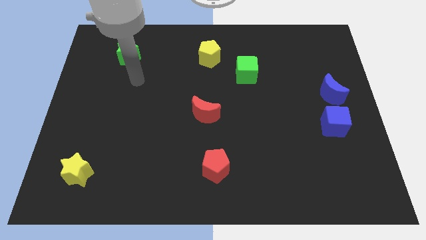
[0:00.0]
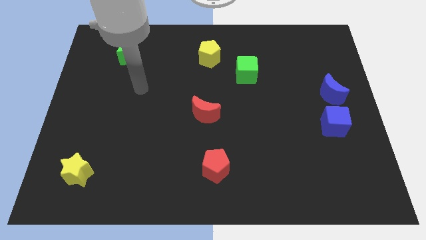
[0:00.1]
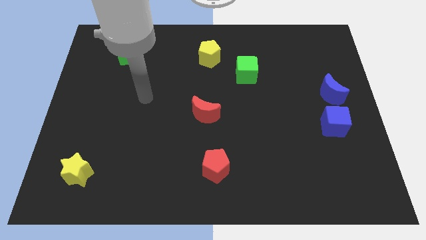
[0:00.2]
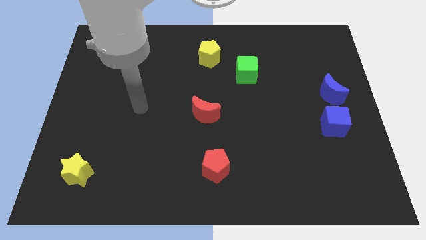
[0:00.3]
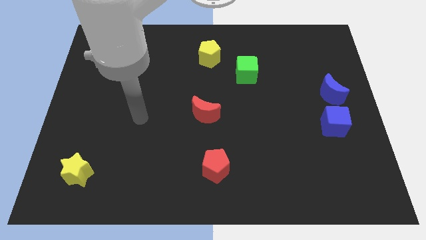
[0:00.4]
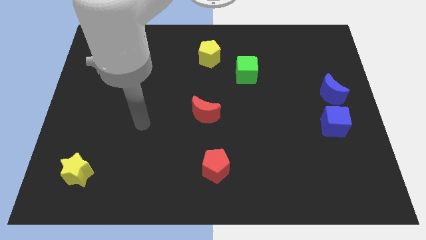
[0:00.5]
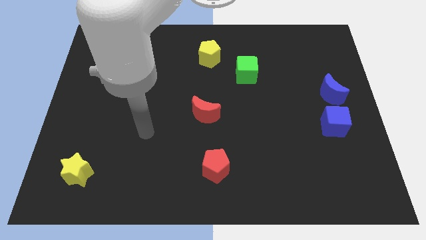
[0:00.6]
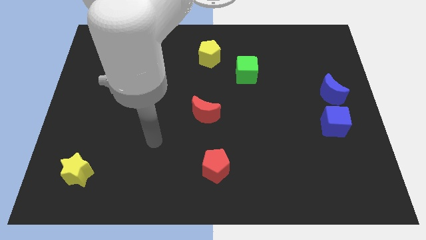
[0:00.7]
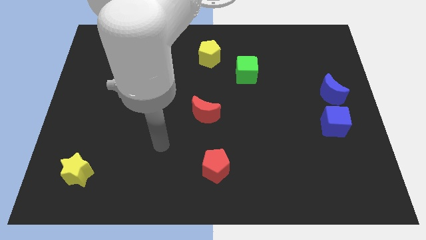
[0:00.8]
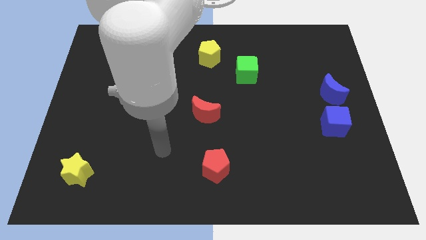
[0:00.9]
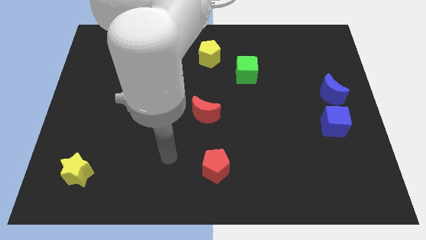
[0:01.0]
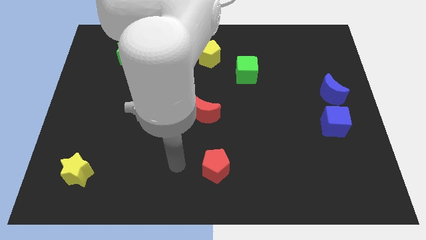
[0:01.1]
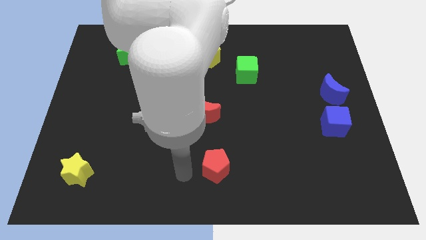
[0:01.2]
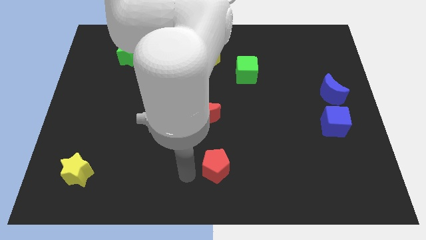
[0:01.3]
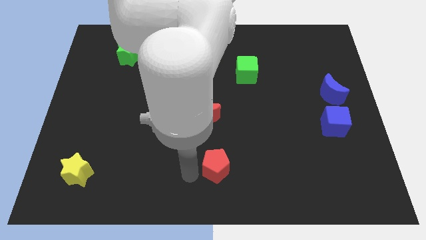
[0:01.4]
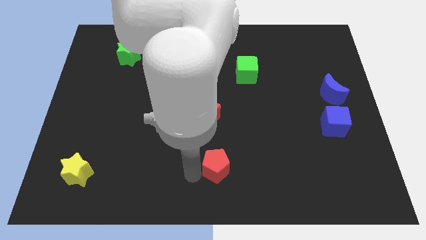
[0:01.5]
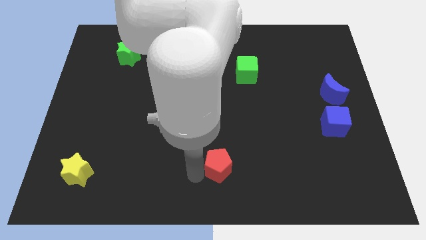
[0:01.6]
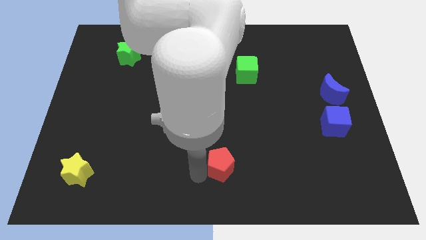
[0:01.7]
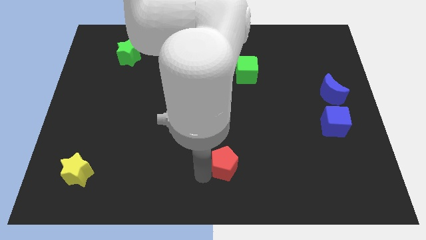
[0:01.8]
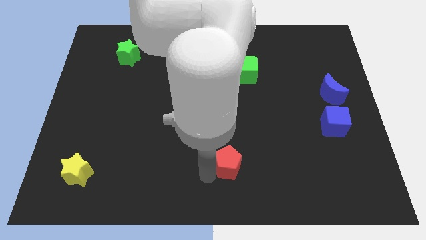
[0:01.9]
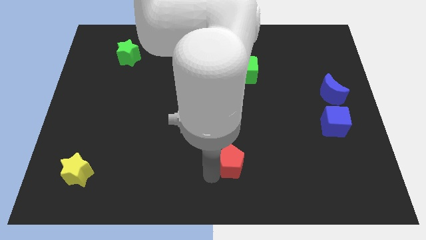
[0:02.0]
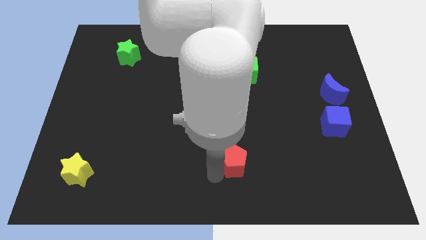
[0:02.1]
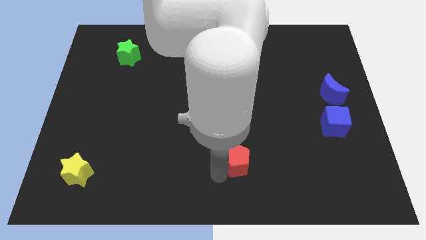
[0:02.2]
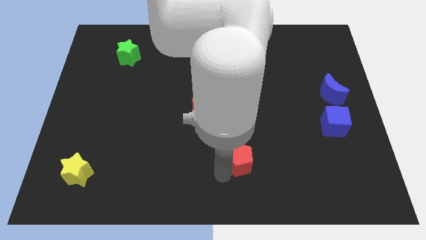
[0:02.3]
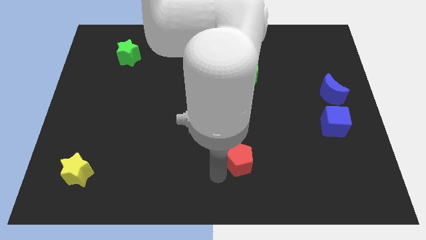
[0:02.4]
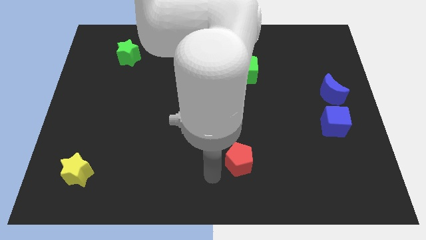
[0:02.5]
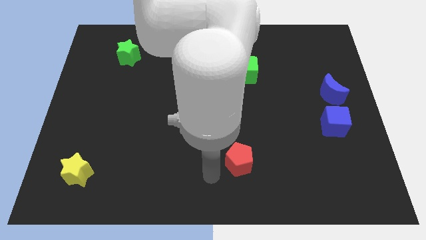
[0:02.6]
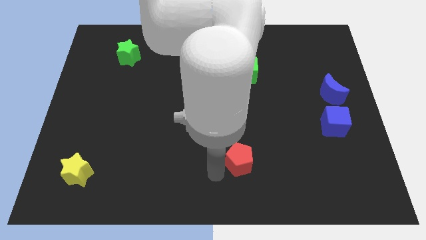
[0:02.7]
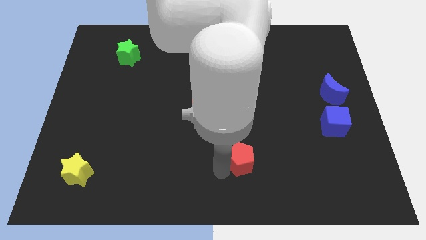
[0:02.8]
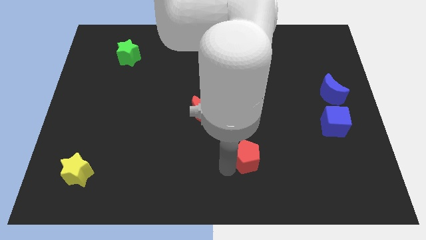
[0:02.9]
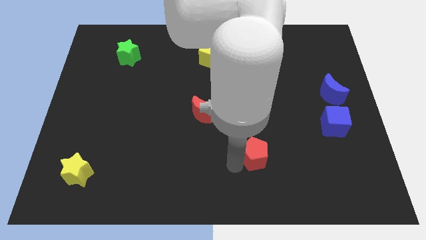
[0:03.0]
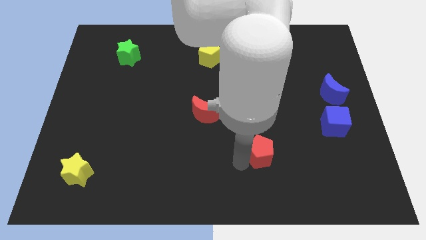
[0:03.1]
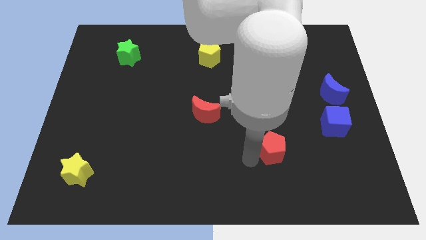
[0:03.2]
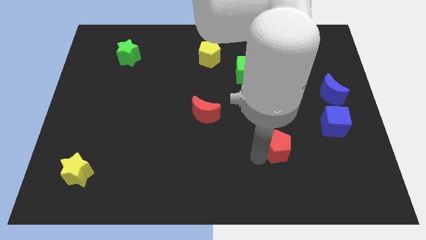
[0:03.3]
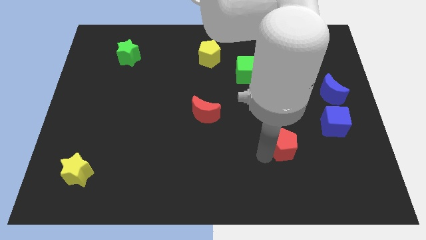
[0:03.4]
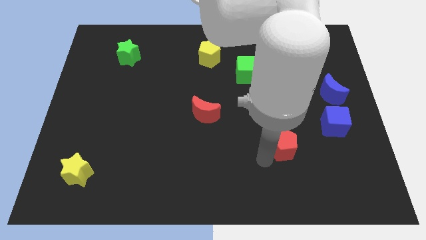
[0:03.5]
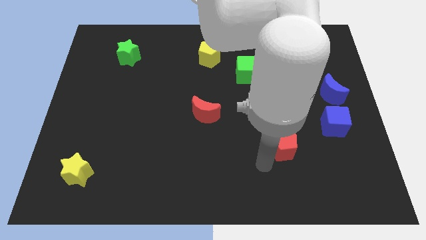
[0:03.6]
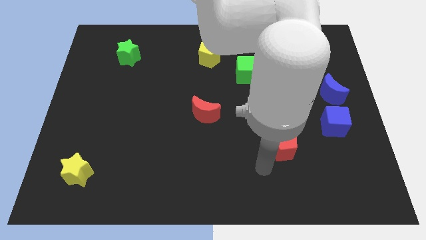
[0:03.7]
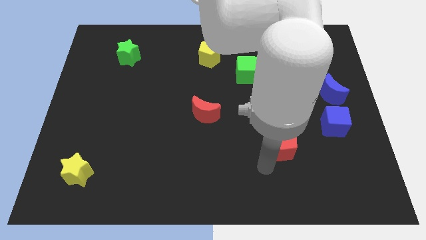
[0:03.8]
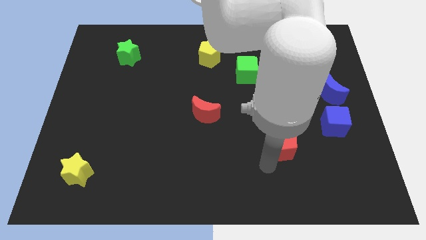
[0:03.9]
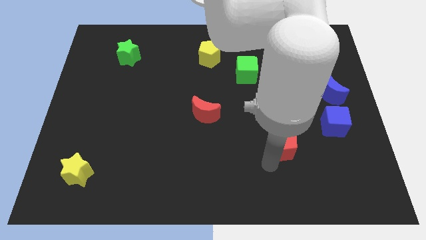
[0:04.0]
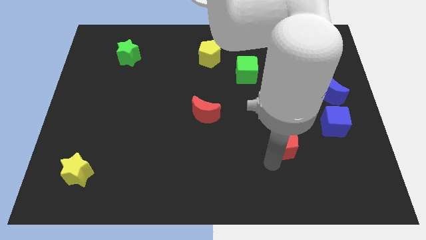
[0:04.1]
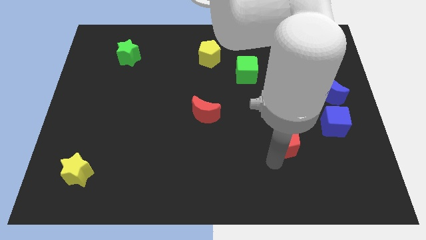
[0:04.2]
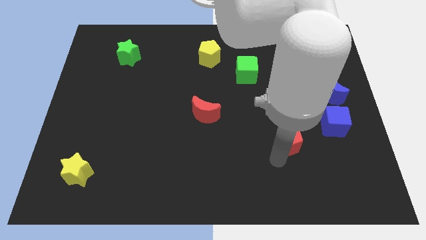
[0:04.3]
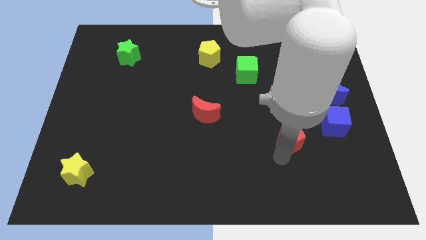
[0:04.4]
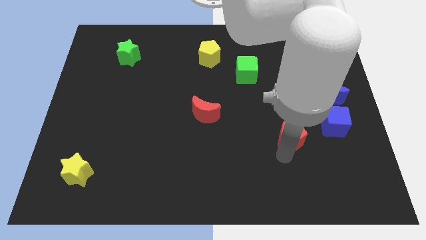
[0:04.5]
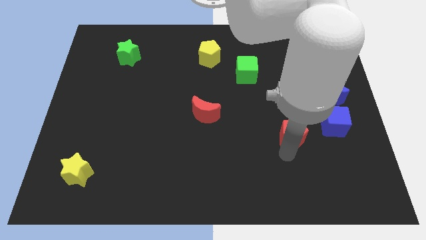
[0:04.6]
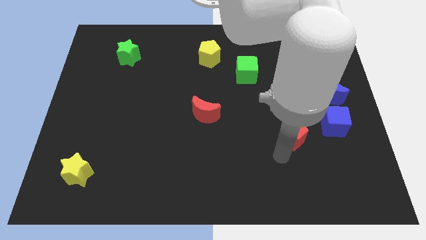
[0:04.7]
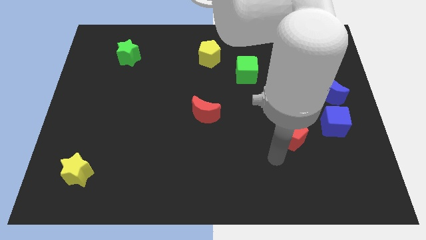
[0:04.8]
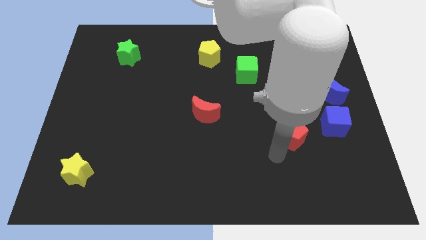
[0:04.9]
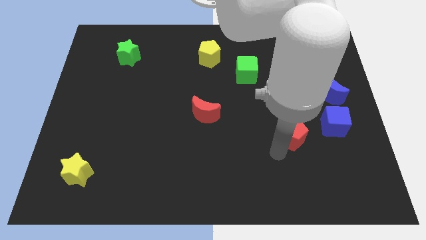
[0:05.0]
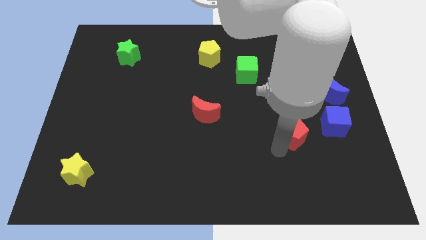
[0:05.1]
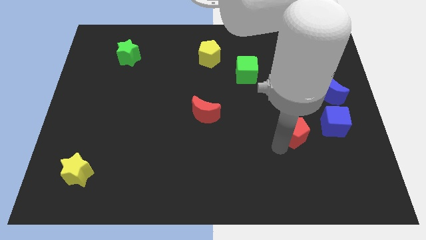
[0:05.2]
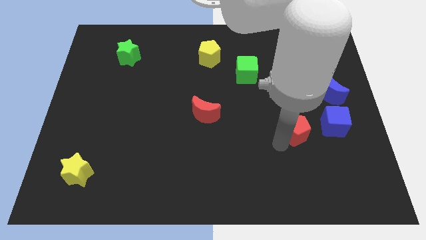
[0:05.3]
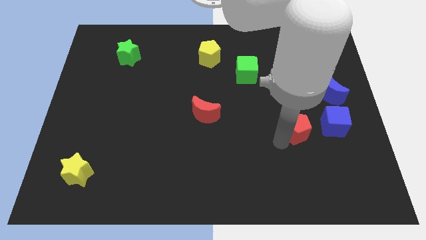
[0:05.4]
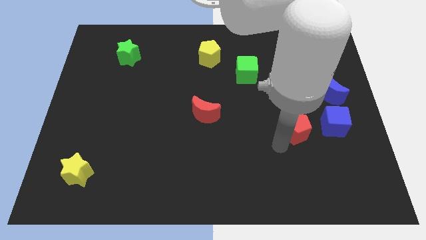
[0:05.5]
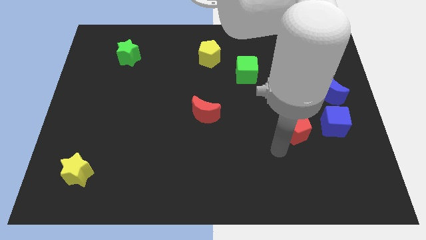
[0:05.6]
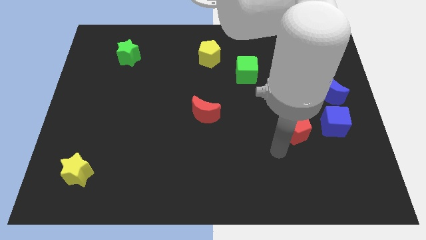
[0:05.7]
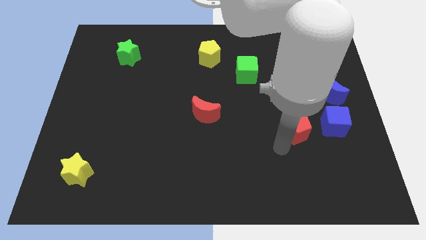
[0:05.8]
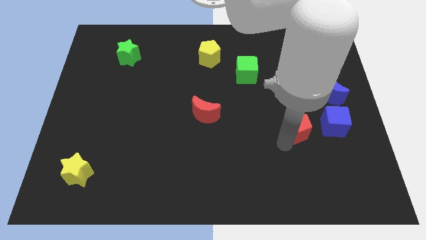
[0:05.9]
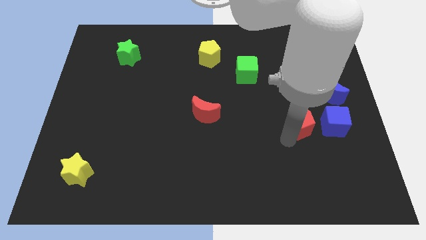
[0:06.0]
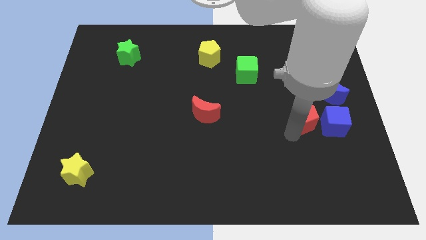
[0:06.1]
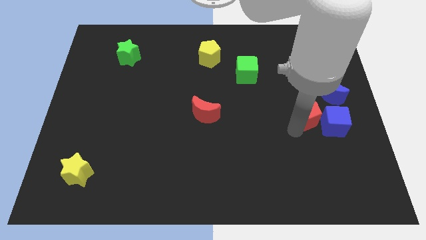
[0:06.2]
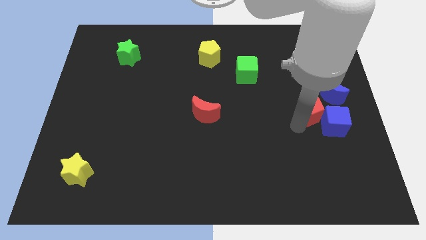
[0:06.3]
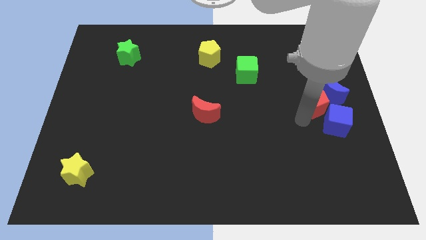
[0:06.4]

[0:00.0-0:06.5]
slide the red pentagon next to the blue moon

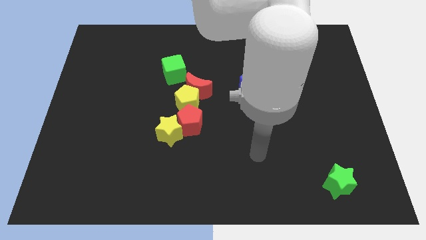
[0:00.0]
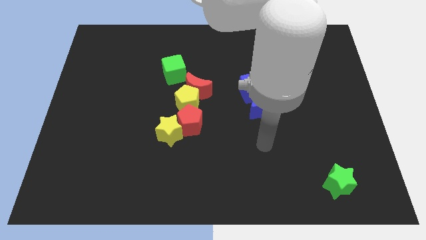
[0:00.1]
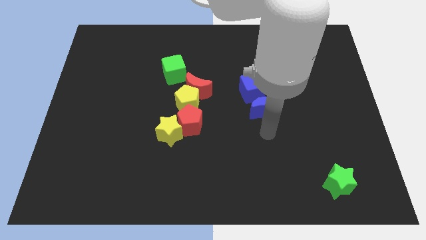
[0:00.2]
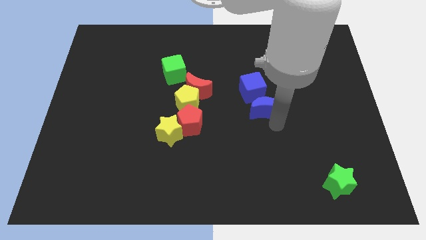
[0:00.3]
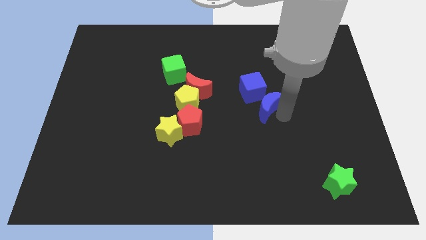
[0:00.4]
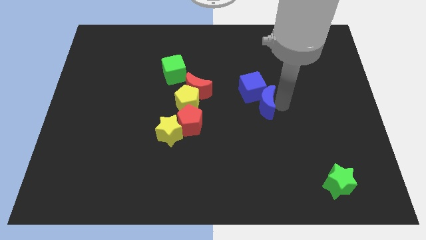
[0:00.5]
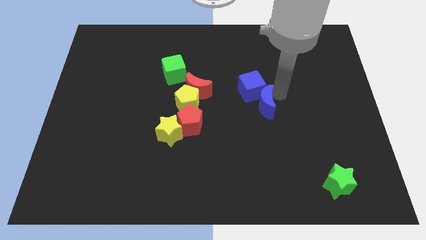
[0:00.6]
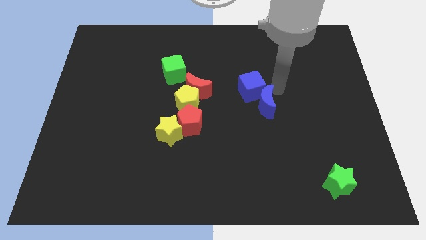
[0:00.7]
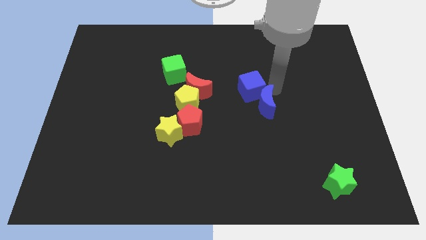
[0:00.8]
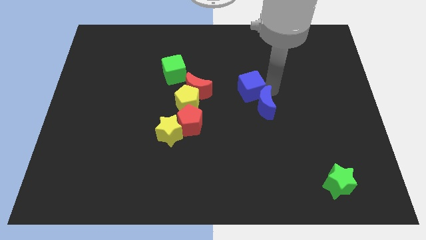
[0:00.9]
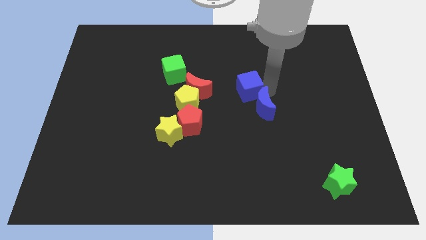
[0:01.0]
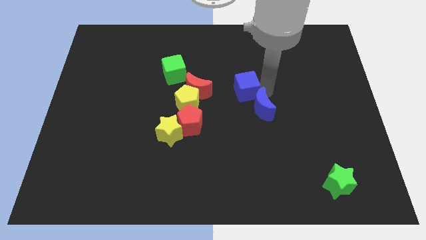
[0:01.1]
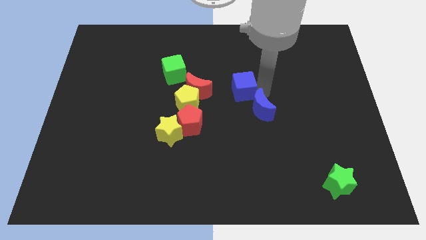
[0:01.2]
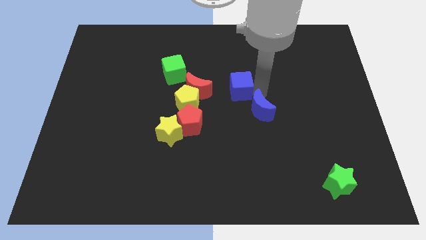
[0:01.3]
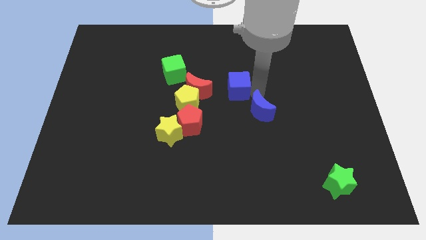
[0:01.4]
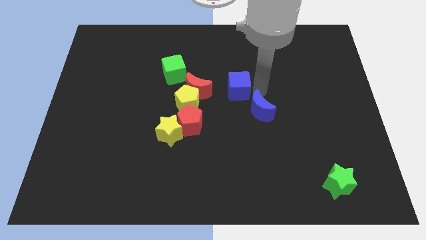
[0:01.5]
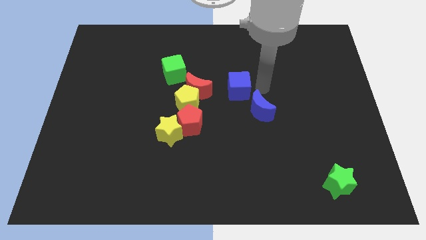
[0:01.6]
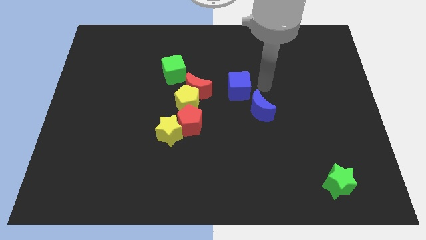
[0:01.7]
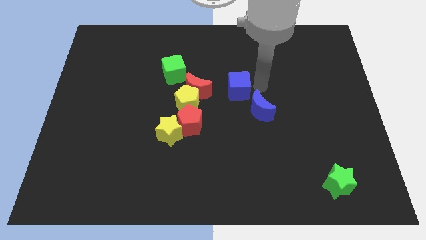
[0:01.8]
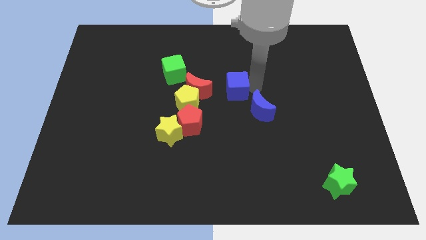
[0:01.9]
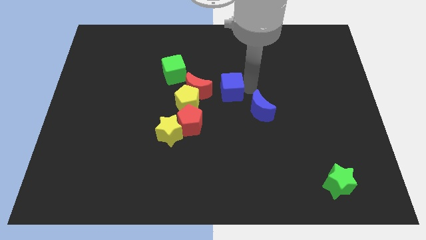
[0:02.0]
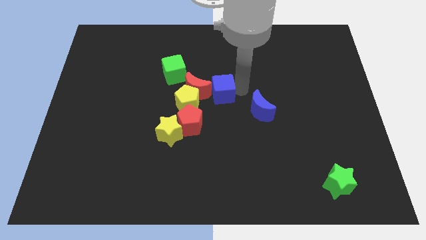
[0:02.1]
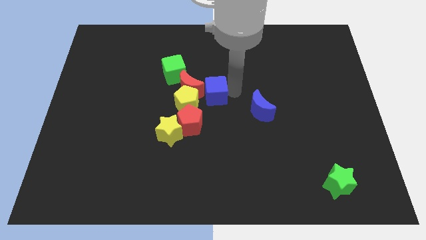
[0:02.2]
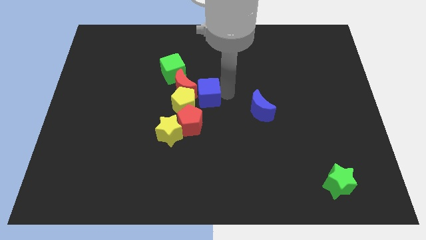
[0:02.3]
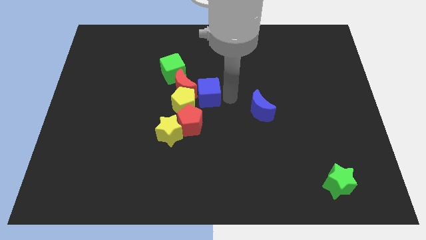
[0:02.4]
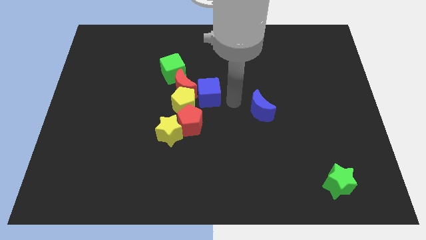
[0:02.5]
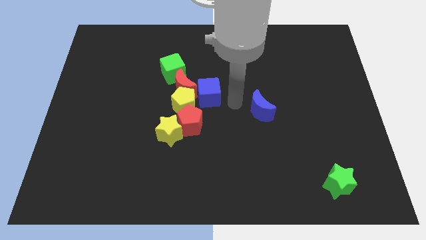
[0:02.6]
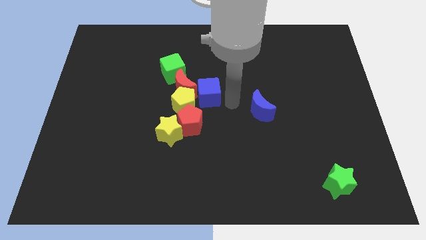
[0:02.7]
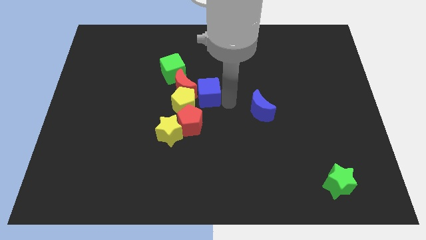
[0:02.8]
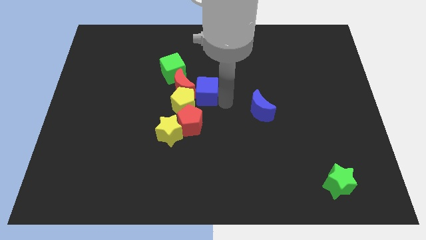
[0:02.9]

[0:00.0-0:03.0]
push the blue cube to the red moon
